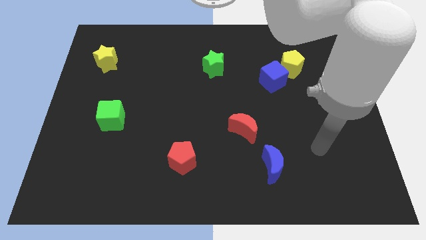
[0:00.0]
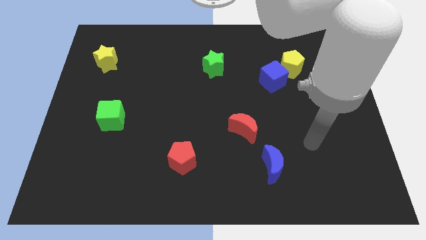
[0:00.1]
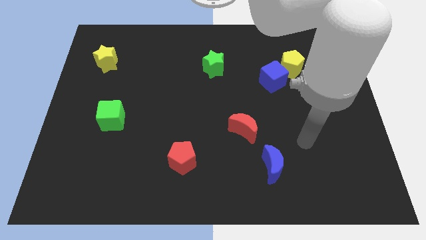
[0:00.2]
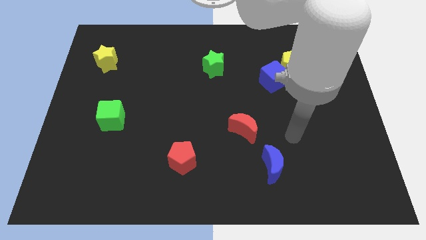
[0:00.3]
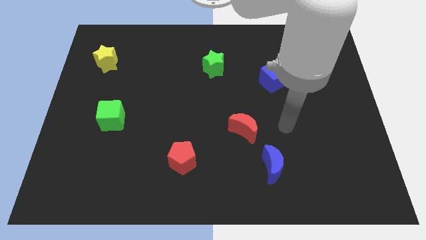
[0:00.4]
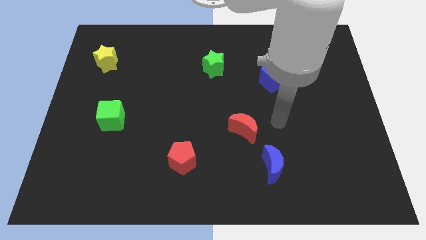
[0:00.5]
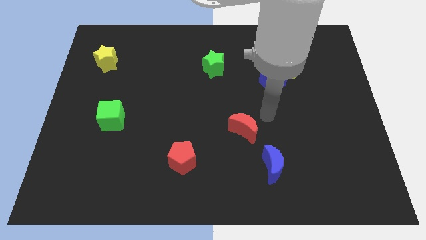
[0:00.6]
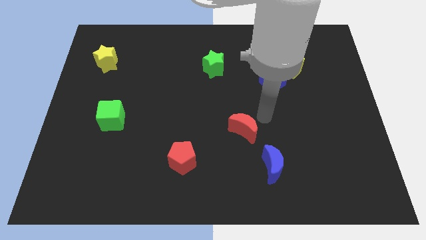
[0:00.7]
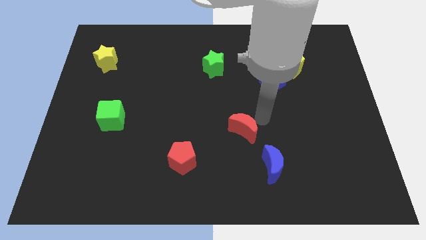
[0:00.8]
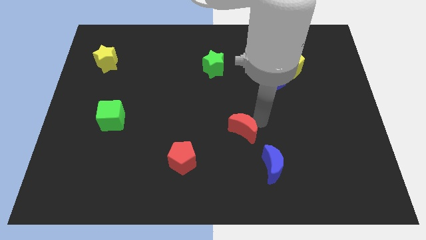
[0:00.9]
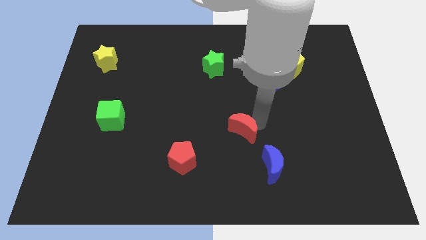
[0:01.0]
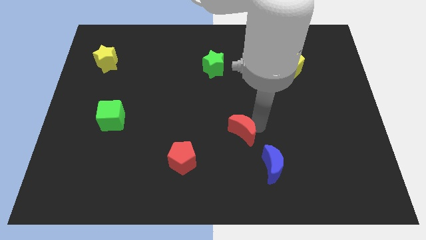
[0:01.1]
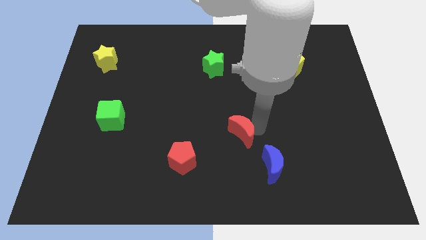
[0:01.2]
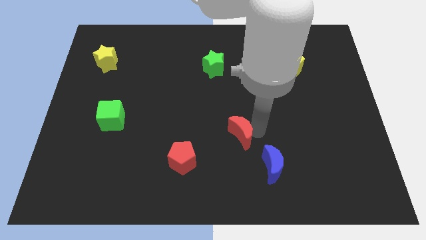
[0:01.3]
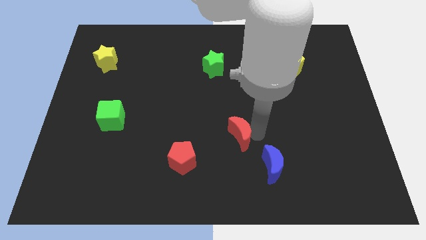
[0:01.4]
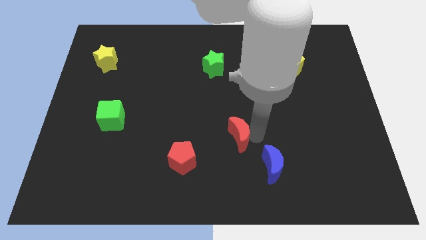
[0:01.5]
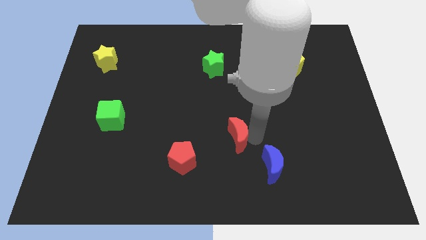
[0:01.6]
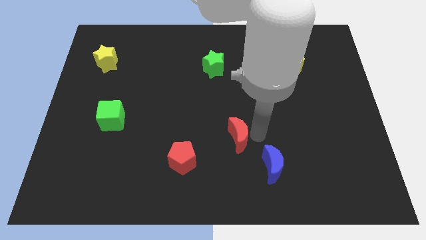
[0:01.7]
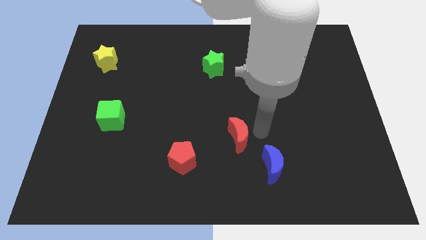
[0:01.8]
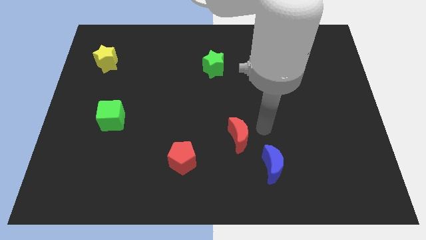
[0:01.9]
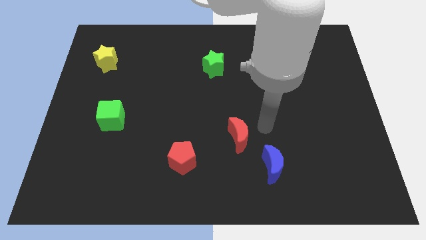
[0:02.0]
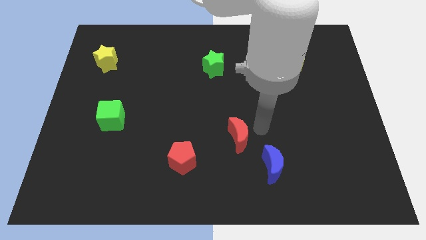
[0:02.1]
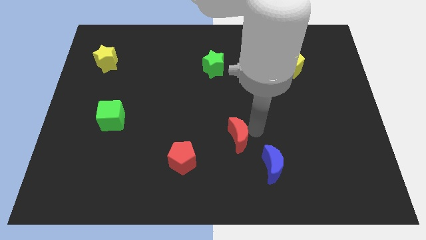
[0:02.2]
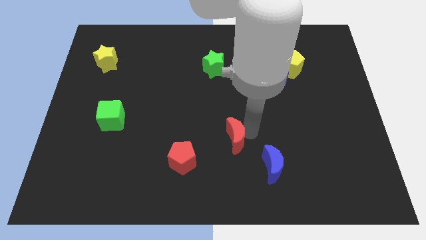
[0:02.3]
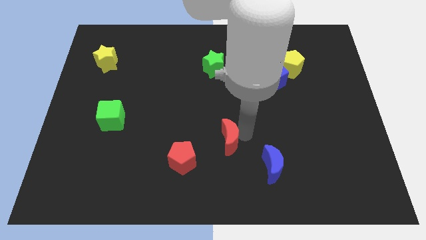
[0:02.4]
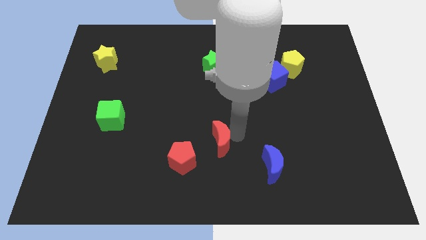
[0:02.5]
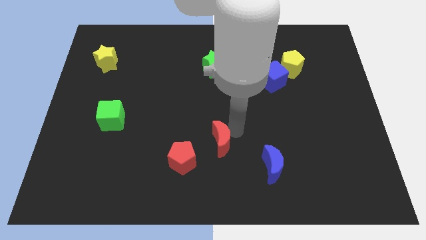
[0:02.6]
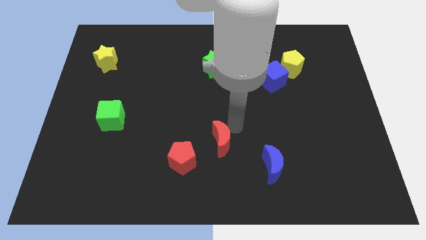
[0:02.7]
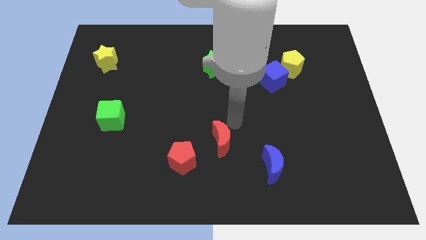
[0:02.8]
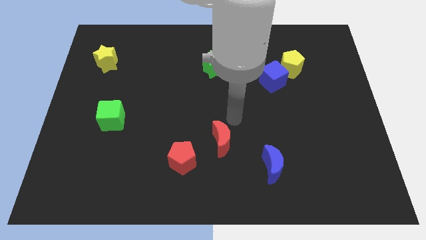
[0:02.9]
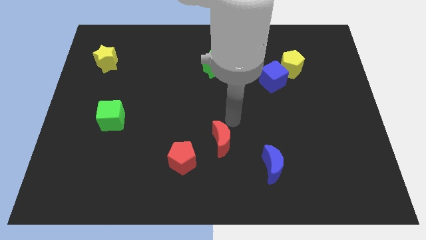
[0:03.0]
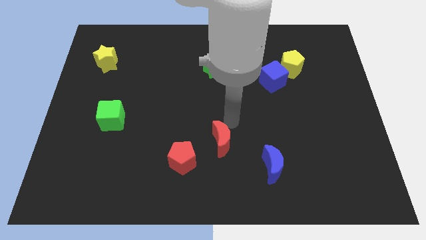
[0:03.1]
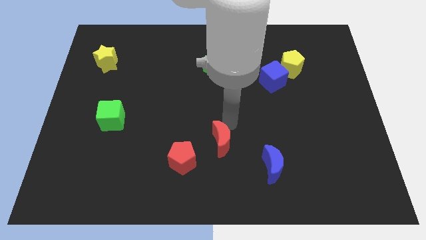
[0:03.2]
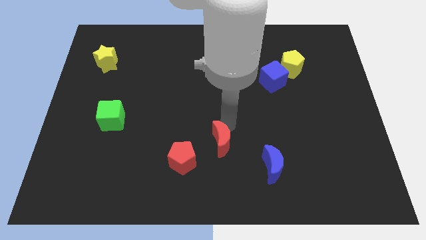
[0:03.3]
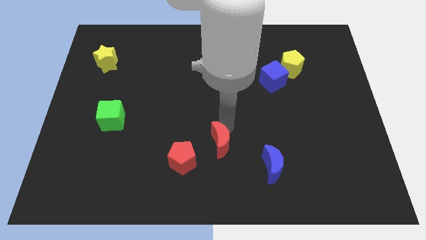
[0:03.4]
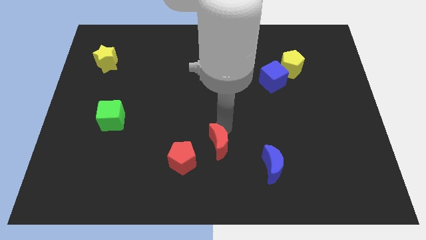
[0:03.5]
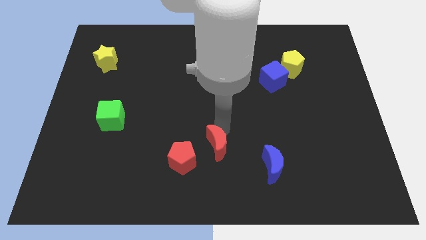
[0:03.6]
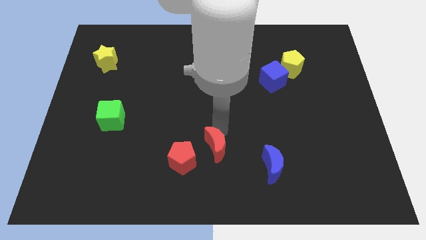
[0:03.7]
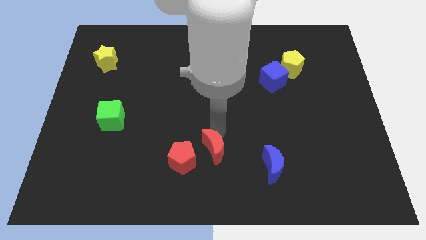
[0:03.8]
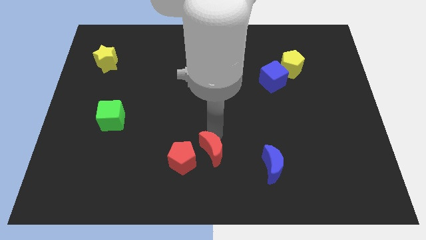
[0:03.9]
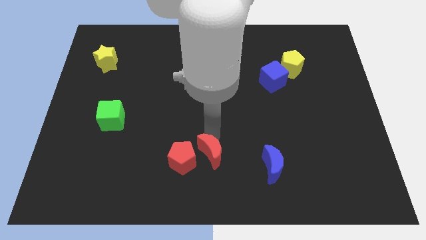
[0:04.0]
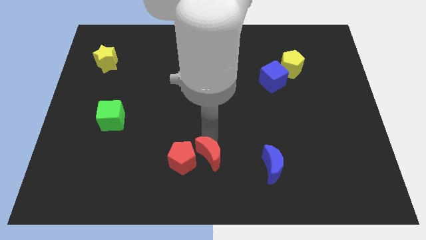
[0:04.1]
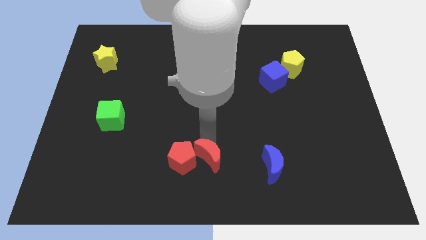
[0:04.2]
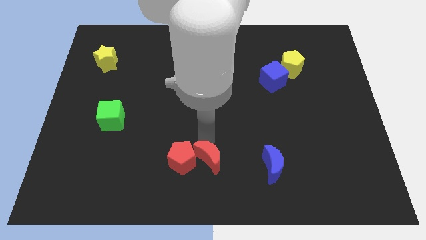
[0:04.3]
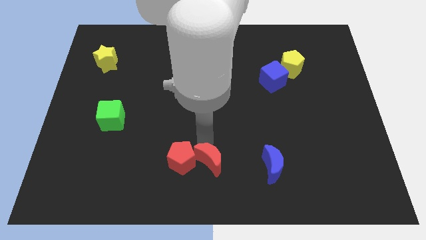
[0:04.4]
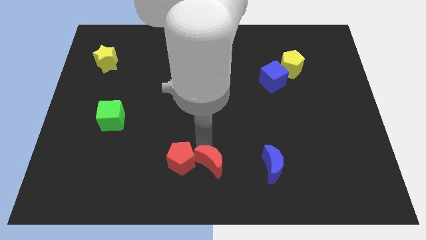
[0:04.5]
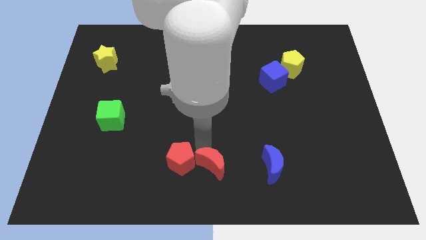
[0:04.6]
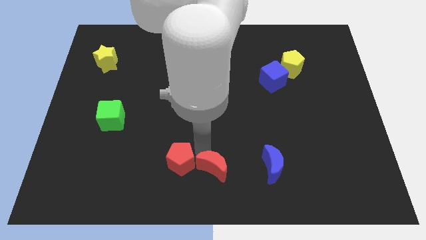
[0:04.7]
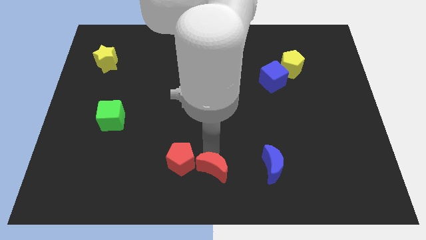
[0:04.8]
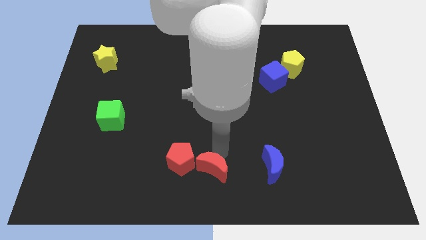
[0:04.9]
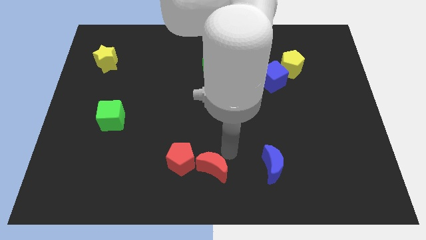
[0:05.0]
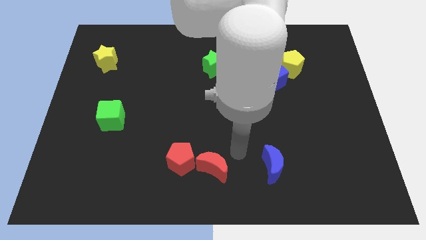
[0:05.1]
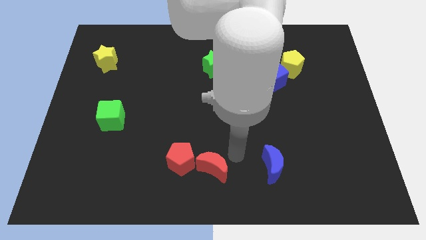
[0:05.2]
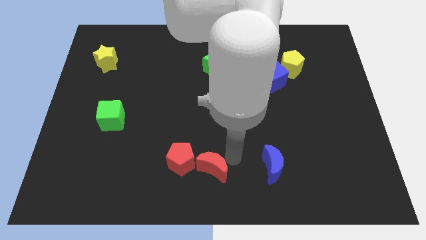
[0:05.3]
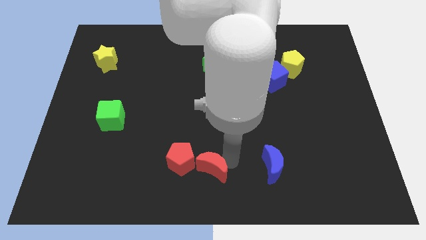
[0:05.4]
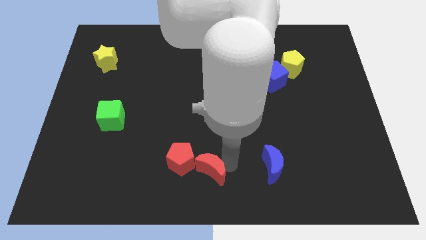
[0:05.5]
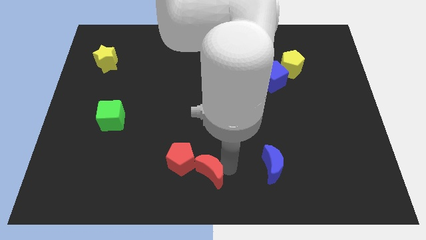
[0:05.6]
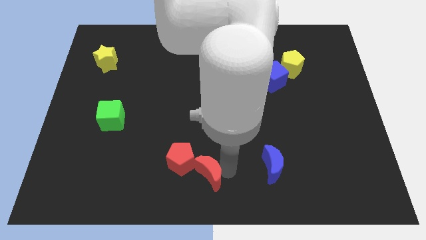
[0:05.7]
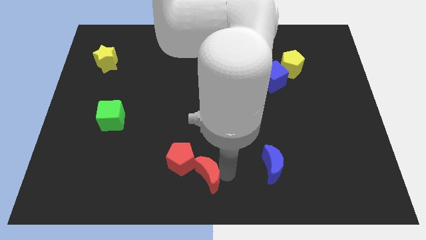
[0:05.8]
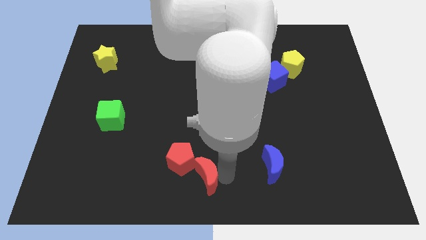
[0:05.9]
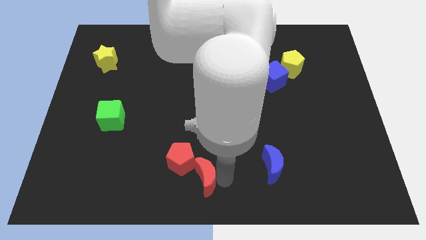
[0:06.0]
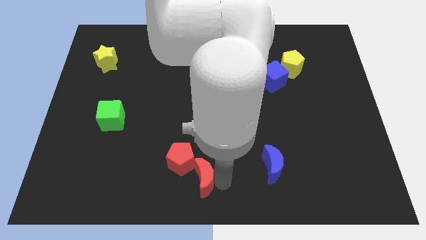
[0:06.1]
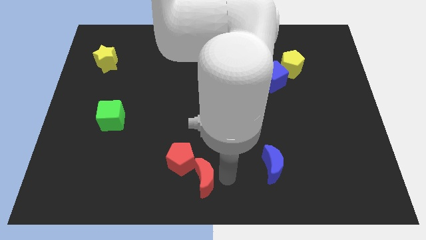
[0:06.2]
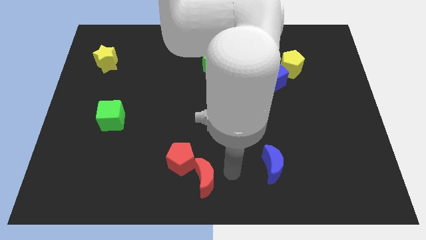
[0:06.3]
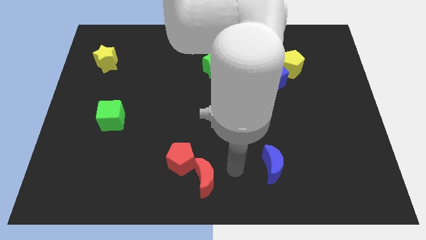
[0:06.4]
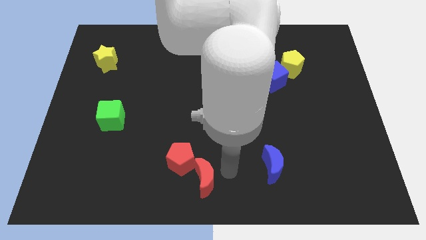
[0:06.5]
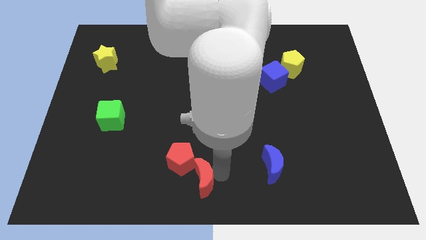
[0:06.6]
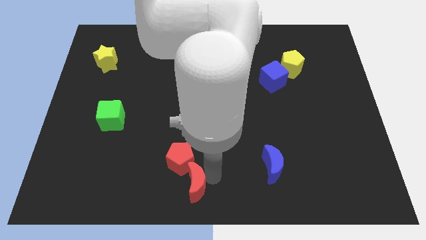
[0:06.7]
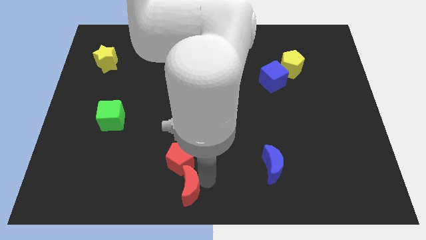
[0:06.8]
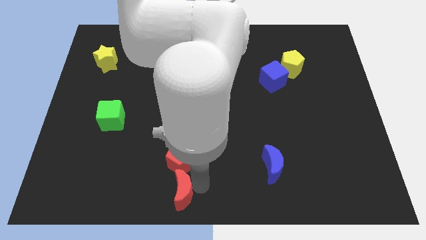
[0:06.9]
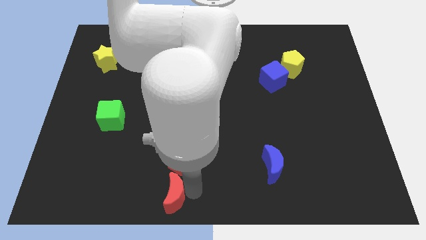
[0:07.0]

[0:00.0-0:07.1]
slide the red moon diagonally down and to the left of the red pentagon
